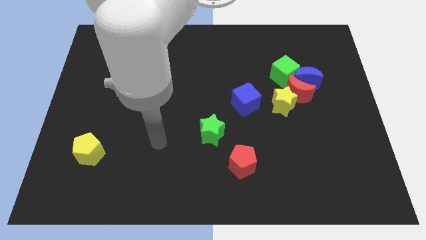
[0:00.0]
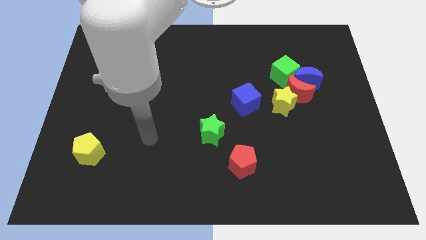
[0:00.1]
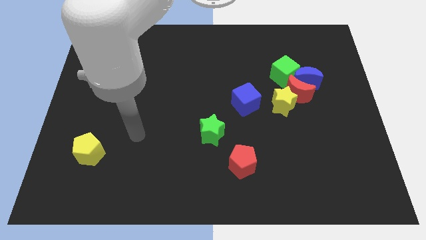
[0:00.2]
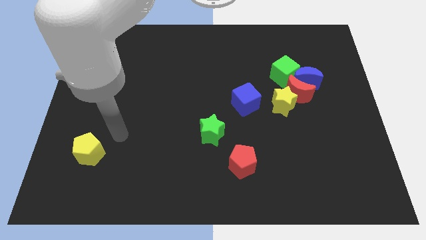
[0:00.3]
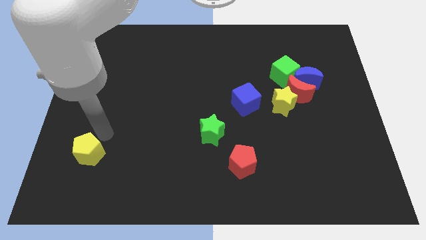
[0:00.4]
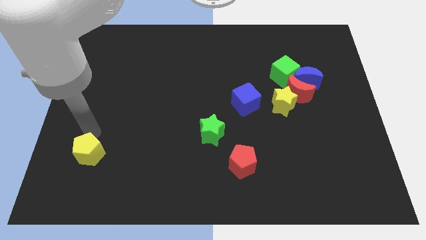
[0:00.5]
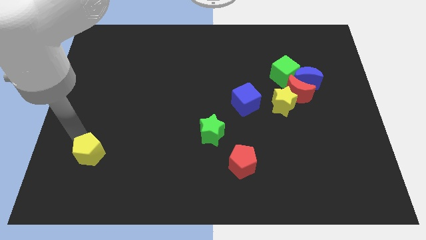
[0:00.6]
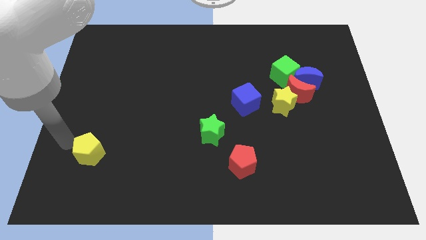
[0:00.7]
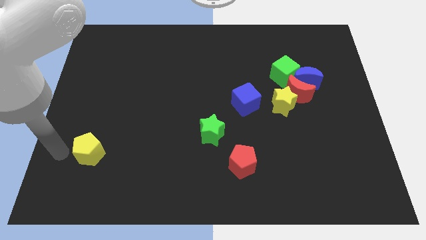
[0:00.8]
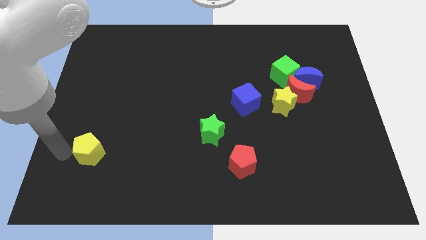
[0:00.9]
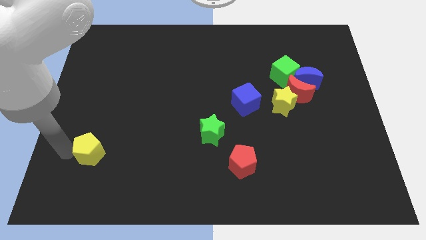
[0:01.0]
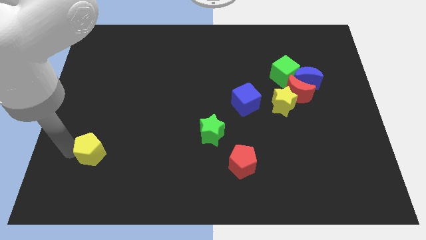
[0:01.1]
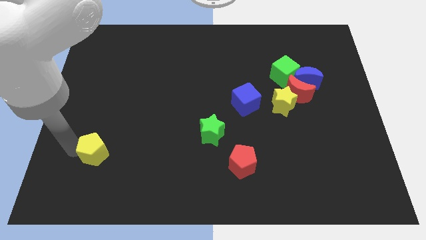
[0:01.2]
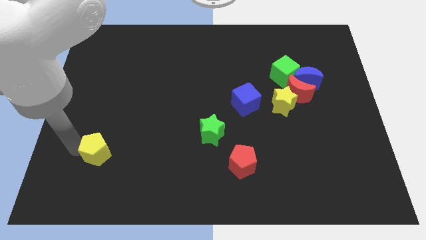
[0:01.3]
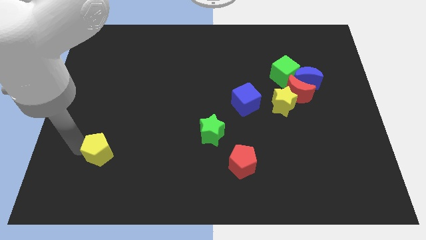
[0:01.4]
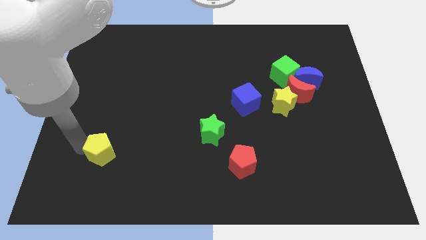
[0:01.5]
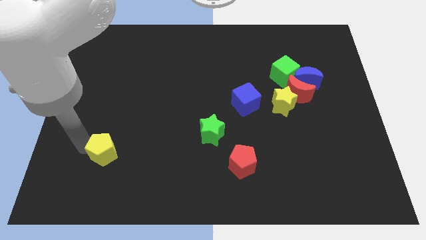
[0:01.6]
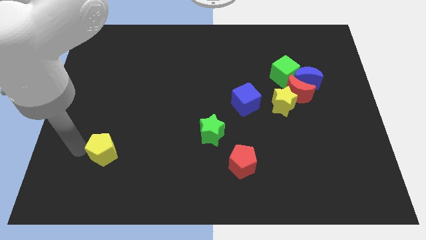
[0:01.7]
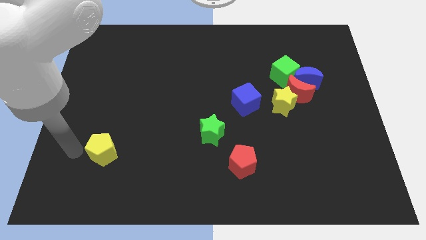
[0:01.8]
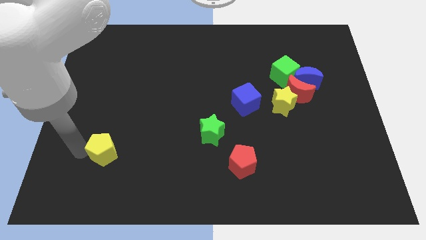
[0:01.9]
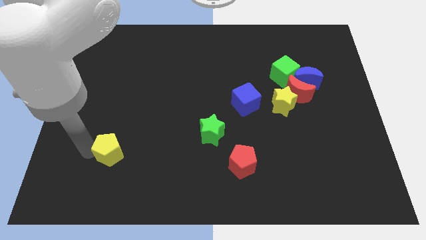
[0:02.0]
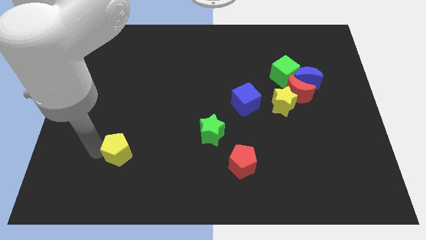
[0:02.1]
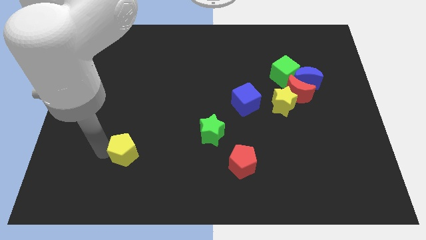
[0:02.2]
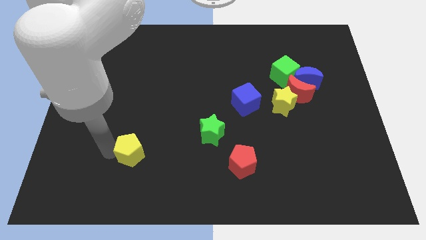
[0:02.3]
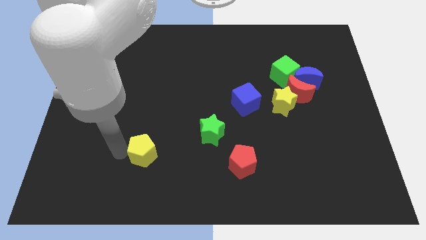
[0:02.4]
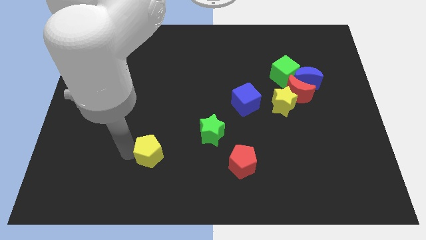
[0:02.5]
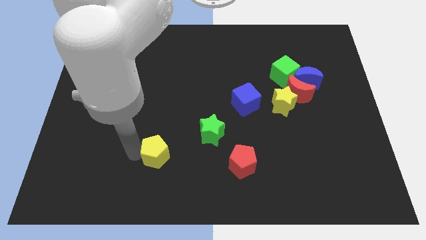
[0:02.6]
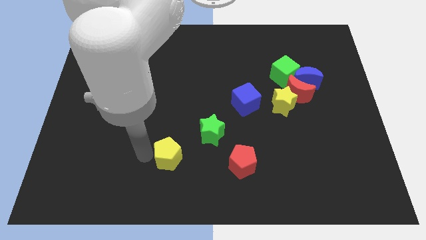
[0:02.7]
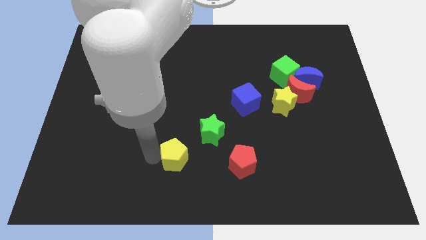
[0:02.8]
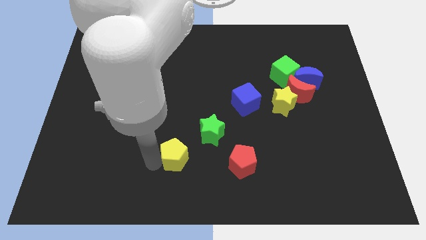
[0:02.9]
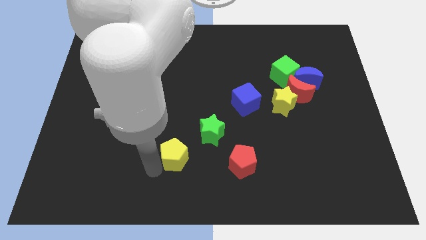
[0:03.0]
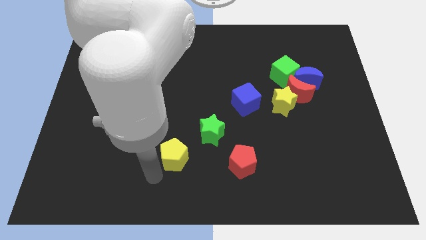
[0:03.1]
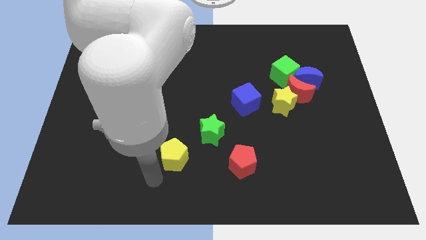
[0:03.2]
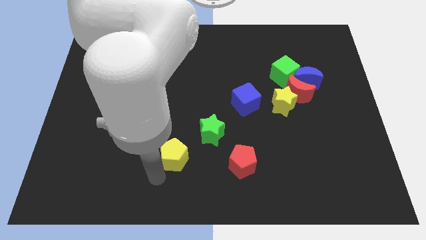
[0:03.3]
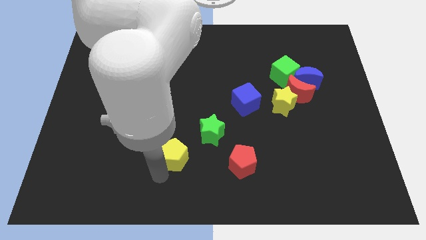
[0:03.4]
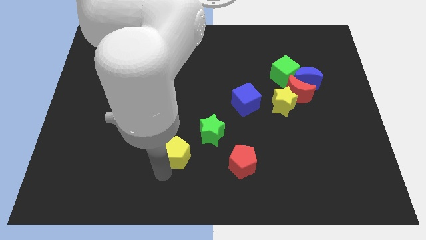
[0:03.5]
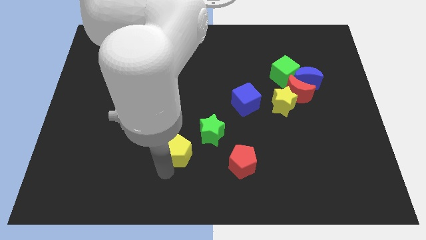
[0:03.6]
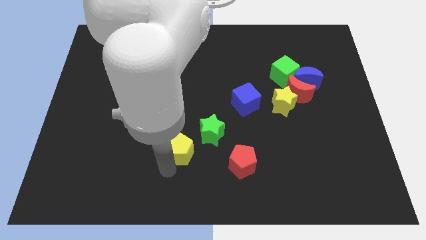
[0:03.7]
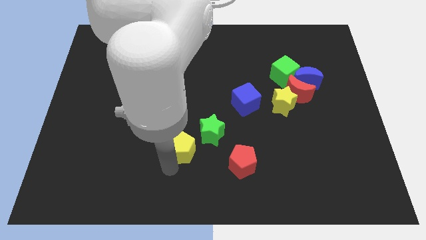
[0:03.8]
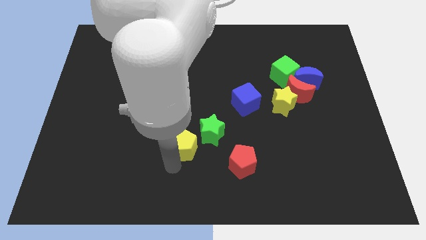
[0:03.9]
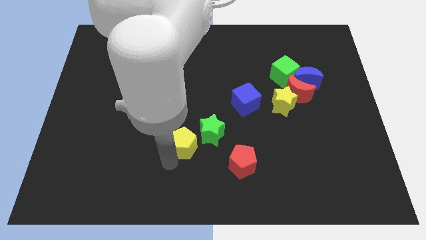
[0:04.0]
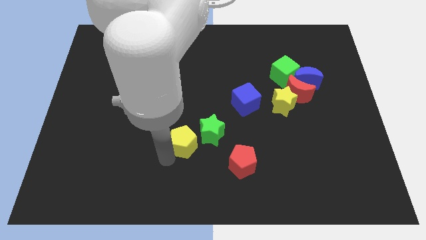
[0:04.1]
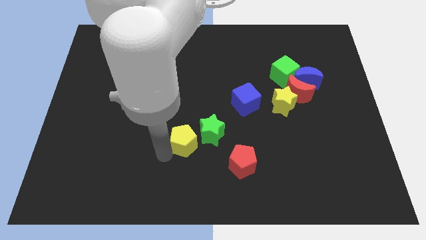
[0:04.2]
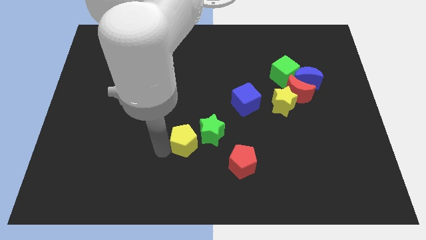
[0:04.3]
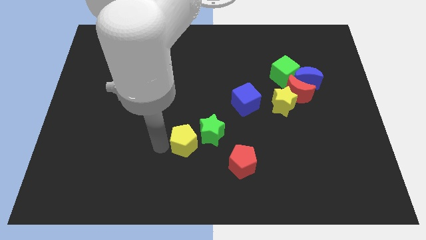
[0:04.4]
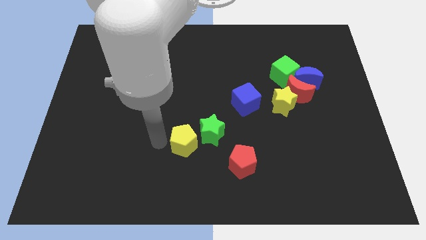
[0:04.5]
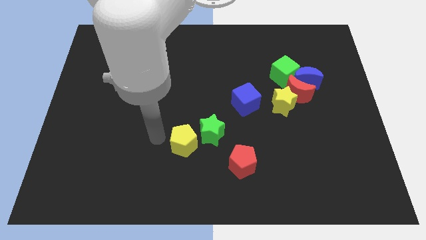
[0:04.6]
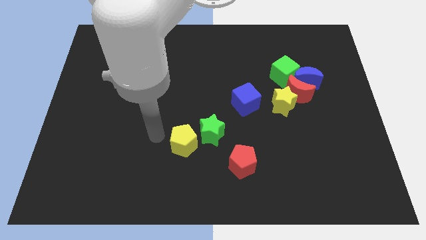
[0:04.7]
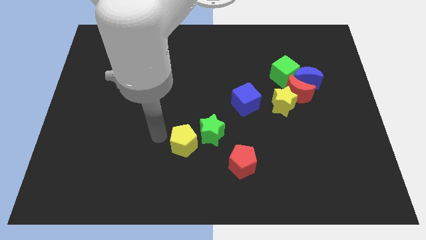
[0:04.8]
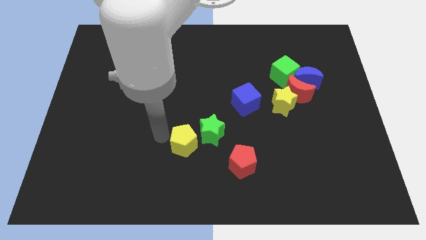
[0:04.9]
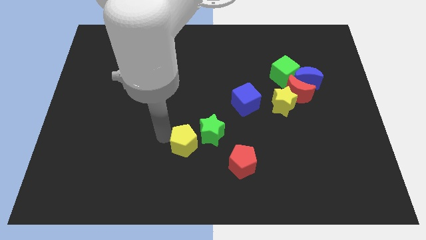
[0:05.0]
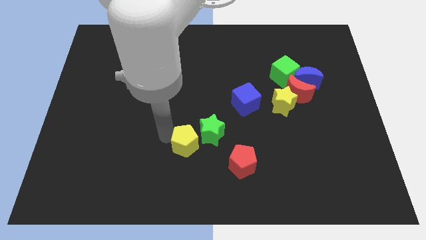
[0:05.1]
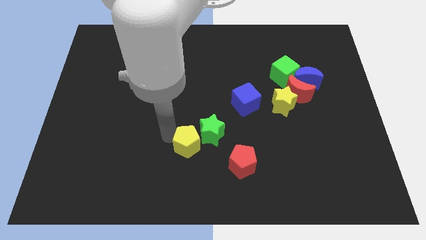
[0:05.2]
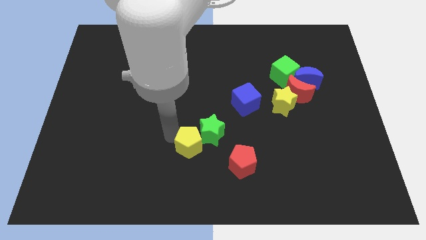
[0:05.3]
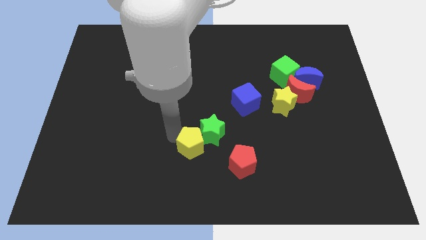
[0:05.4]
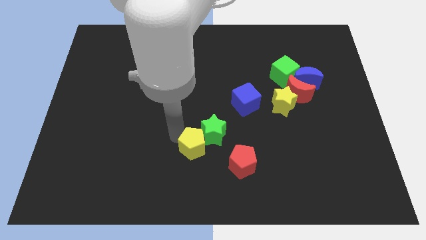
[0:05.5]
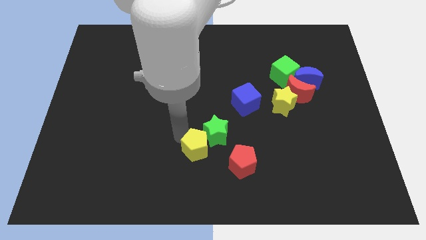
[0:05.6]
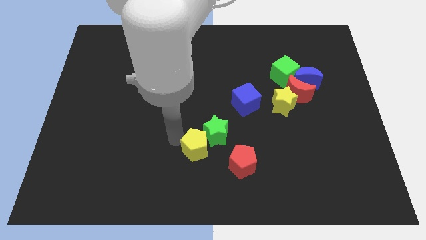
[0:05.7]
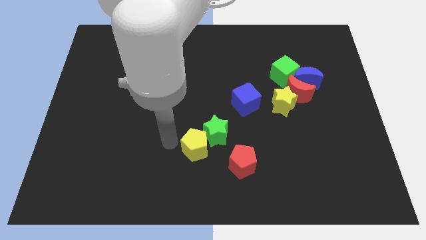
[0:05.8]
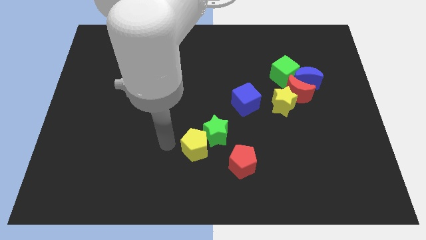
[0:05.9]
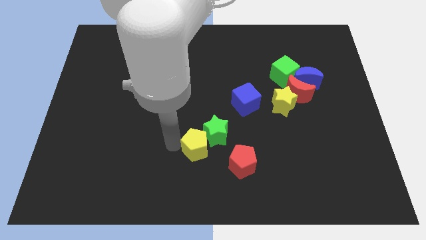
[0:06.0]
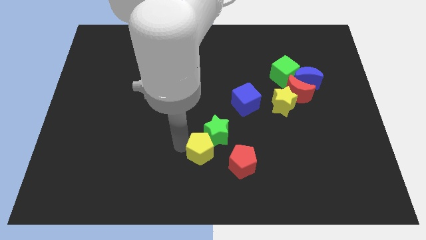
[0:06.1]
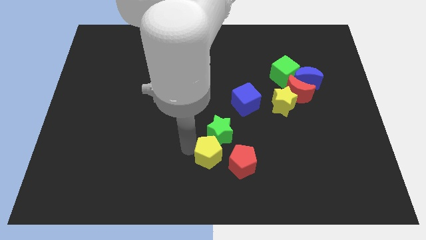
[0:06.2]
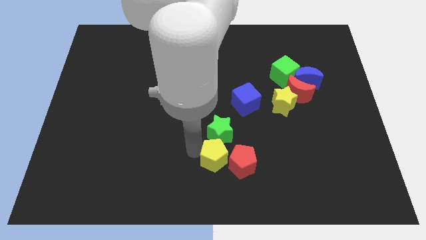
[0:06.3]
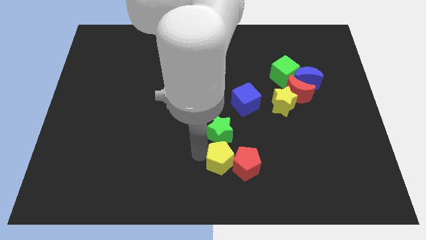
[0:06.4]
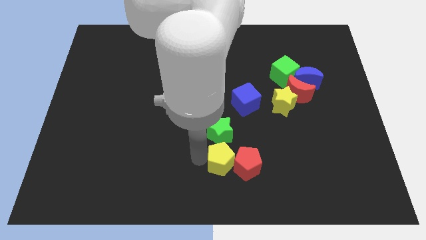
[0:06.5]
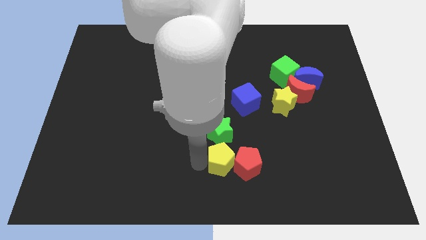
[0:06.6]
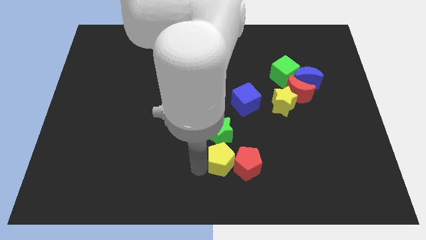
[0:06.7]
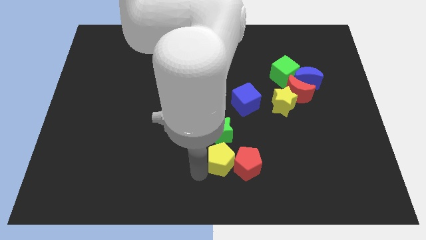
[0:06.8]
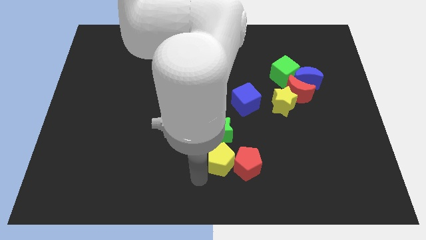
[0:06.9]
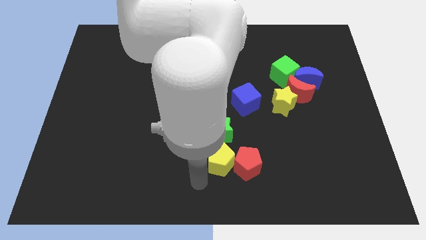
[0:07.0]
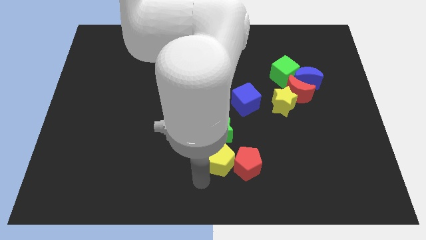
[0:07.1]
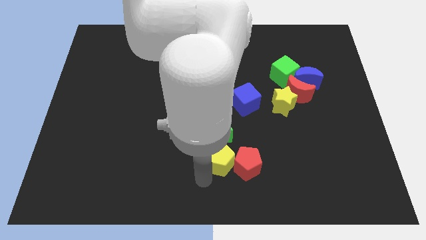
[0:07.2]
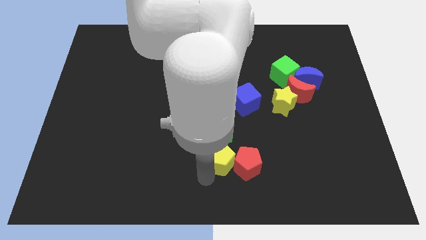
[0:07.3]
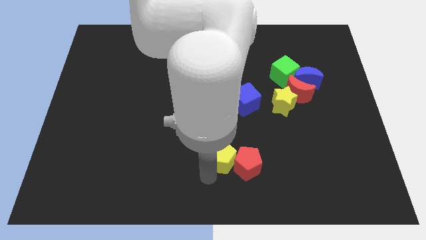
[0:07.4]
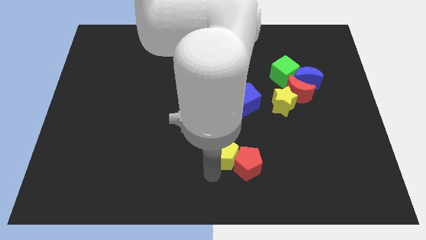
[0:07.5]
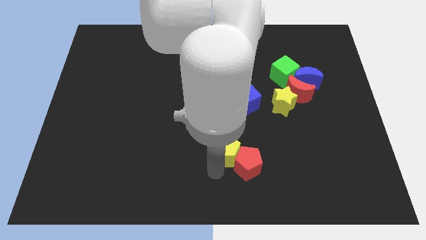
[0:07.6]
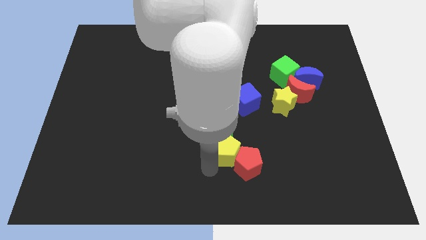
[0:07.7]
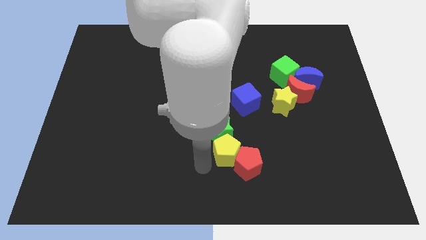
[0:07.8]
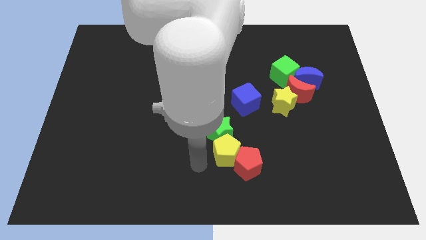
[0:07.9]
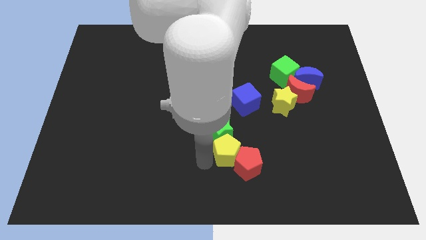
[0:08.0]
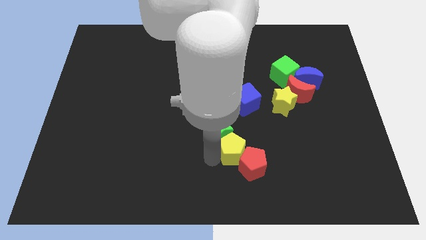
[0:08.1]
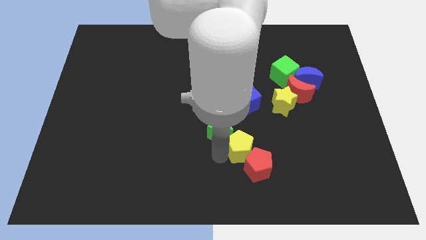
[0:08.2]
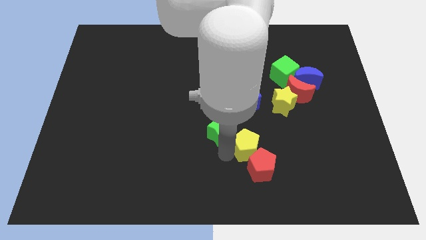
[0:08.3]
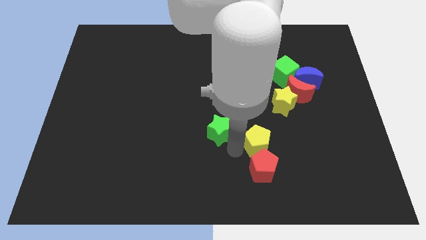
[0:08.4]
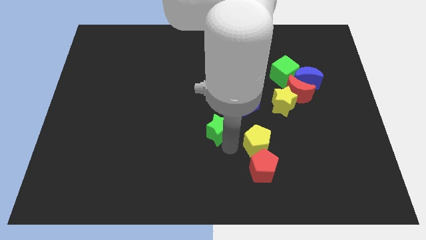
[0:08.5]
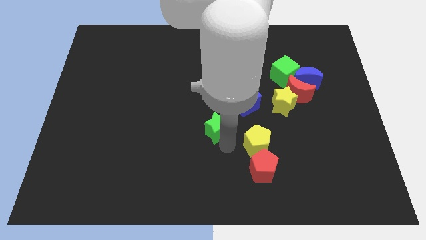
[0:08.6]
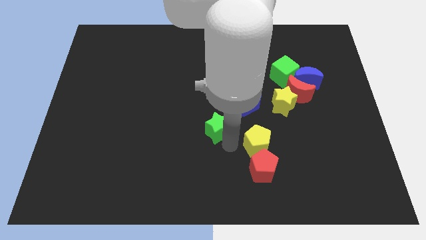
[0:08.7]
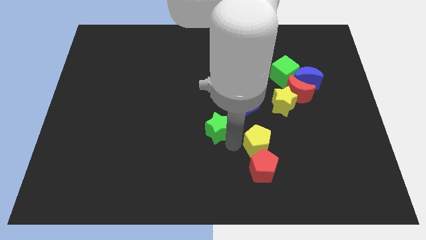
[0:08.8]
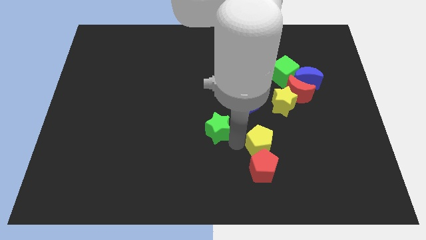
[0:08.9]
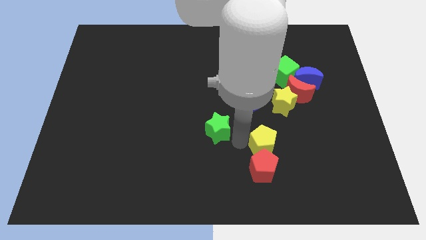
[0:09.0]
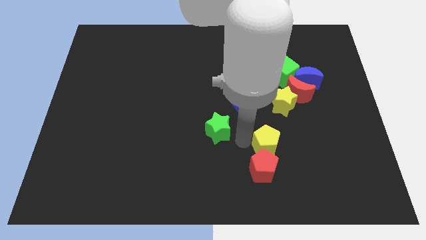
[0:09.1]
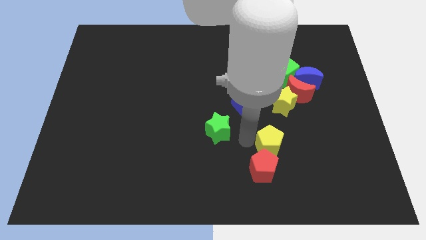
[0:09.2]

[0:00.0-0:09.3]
push the yellow pentagon below the yellow star
